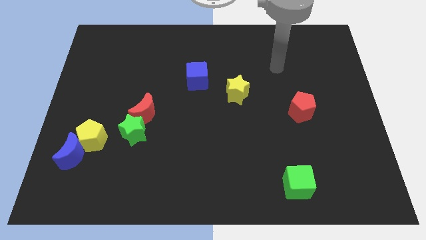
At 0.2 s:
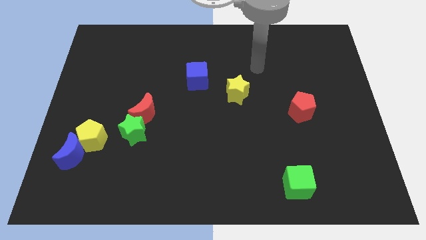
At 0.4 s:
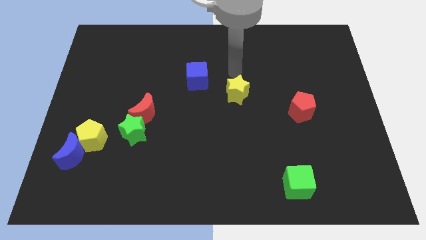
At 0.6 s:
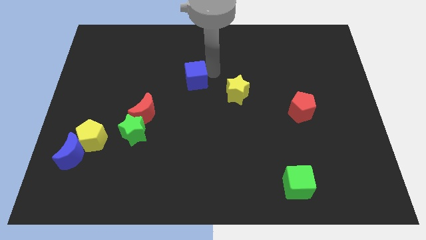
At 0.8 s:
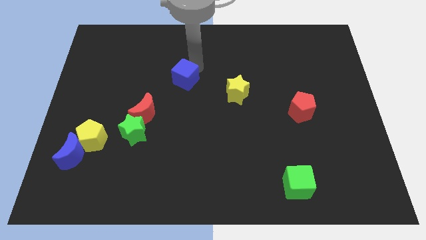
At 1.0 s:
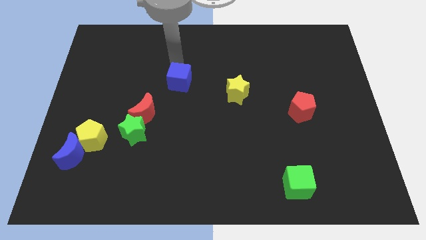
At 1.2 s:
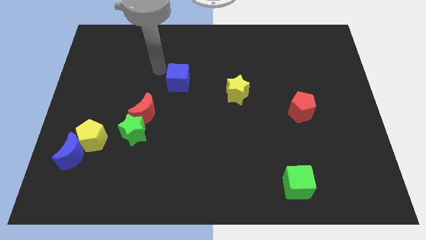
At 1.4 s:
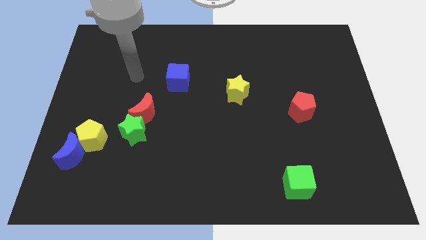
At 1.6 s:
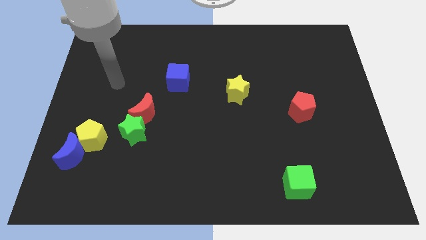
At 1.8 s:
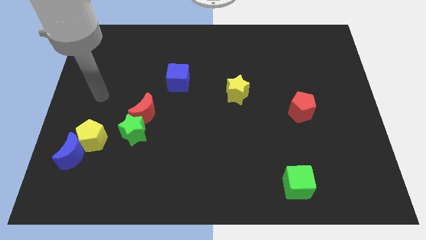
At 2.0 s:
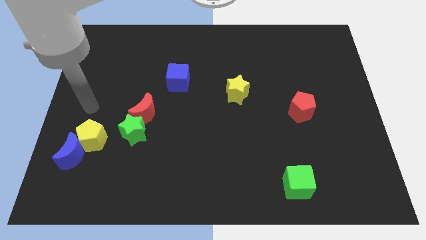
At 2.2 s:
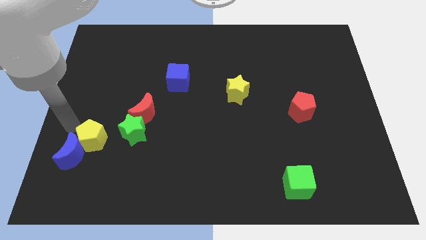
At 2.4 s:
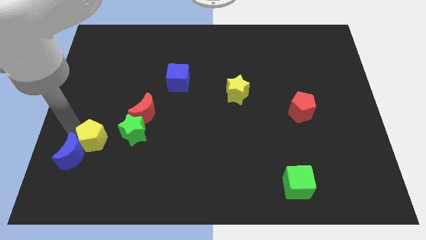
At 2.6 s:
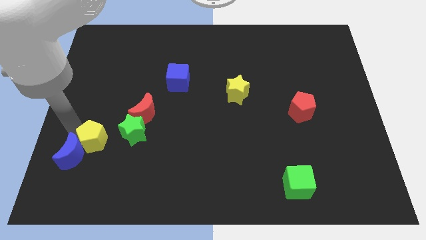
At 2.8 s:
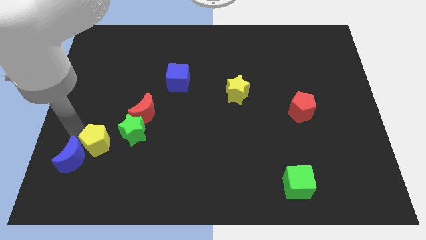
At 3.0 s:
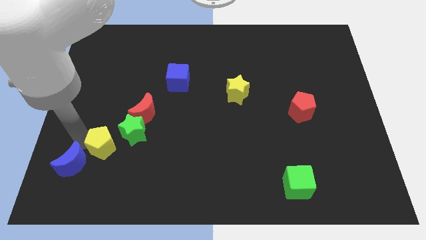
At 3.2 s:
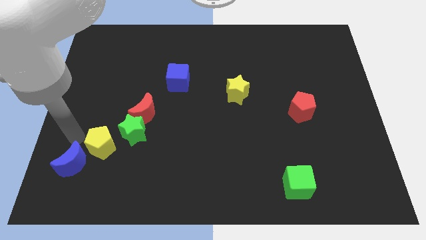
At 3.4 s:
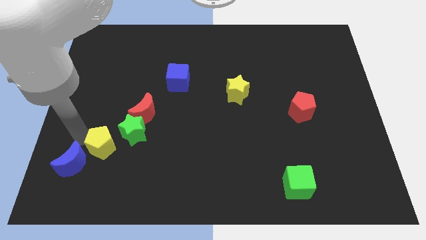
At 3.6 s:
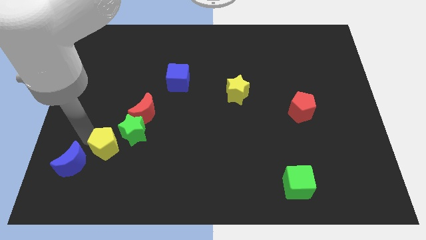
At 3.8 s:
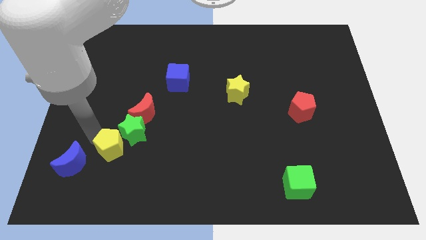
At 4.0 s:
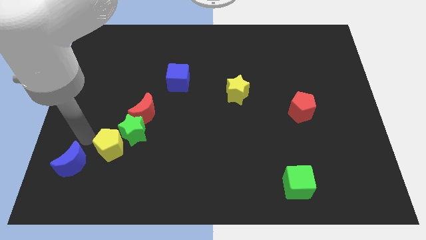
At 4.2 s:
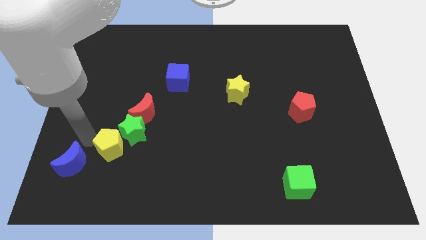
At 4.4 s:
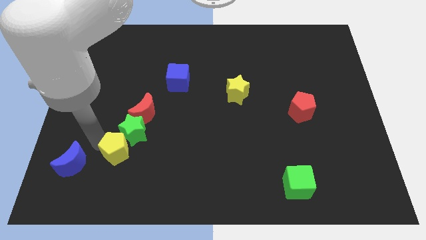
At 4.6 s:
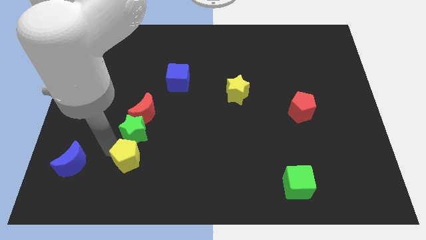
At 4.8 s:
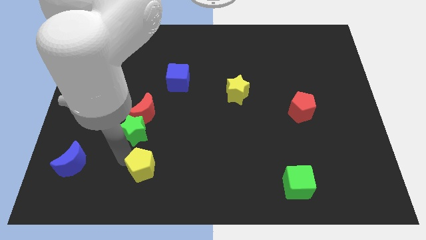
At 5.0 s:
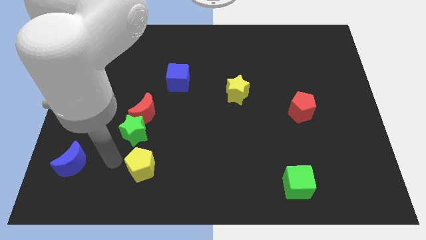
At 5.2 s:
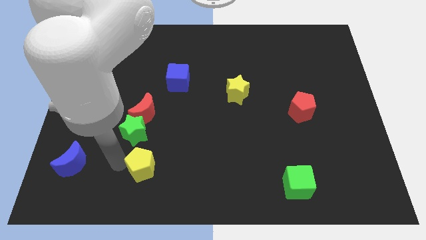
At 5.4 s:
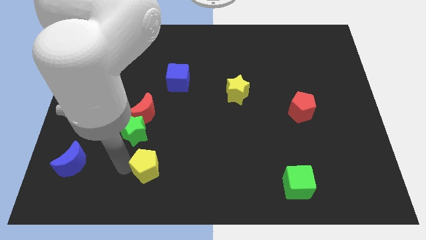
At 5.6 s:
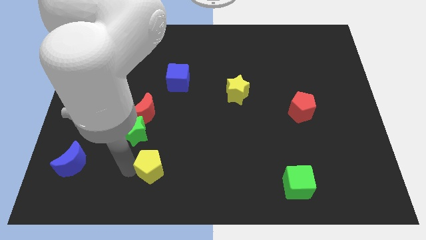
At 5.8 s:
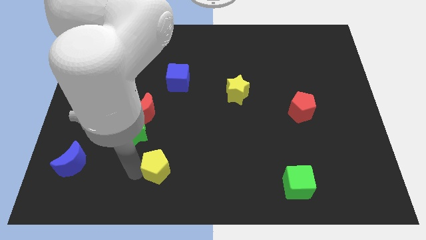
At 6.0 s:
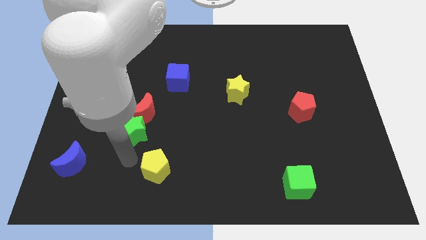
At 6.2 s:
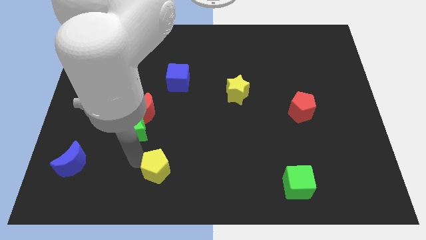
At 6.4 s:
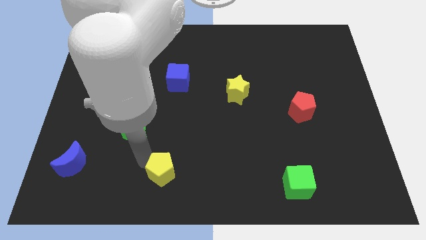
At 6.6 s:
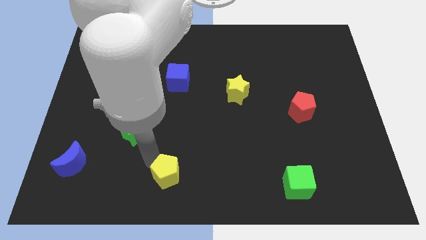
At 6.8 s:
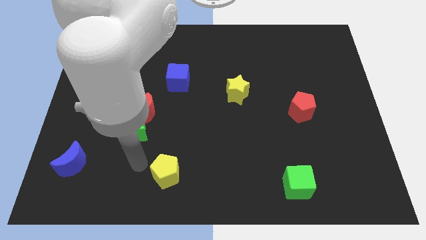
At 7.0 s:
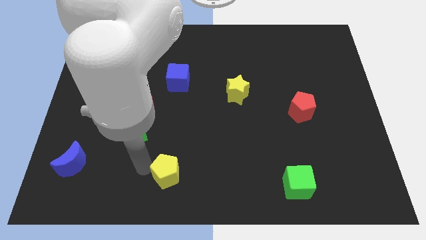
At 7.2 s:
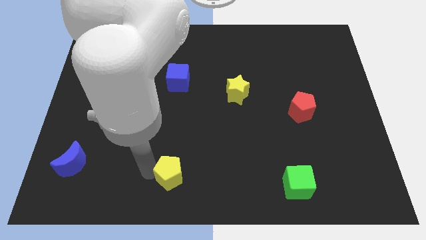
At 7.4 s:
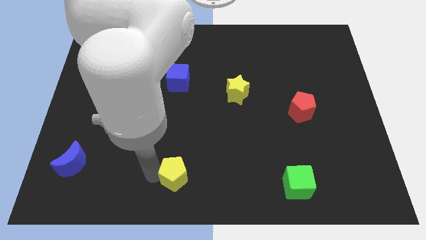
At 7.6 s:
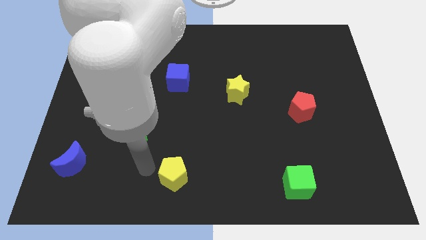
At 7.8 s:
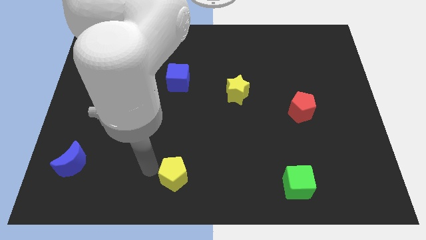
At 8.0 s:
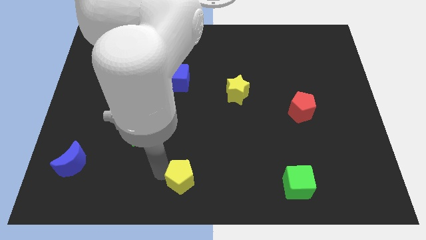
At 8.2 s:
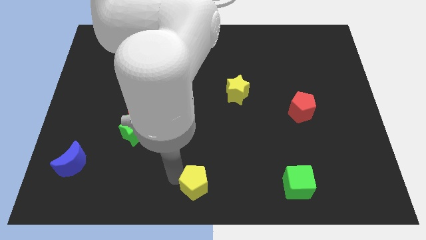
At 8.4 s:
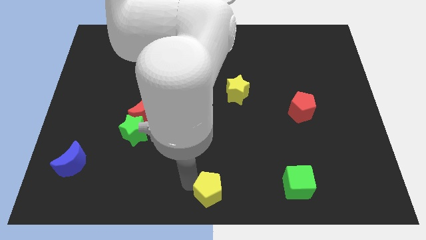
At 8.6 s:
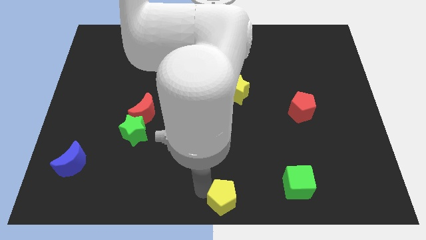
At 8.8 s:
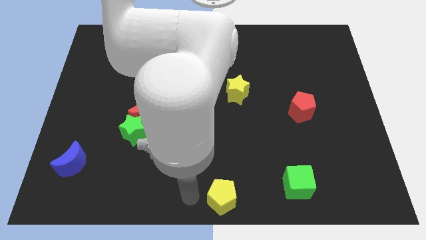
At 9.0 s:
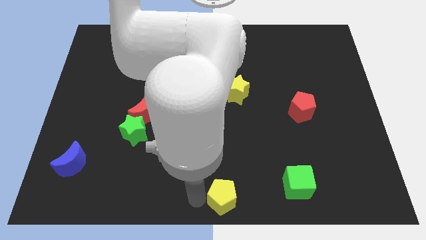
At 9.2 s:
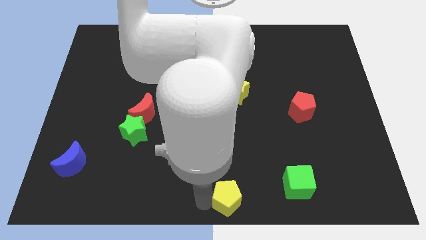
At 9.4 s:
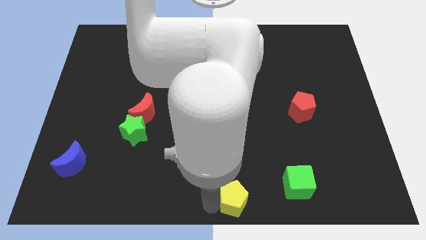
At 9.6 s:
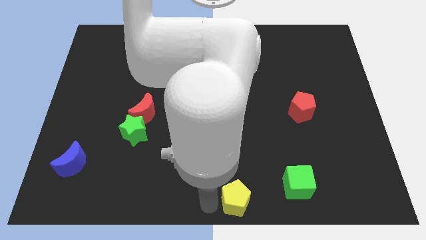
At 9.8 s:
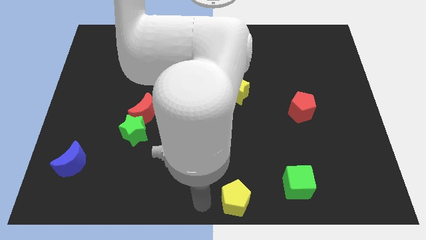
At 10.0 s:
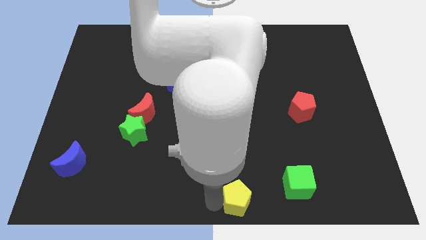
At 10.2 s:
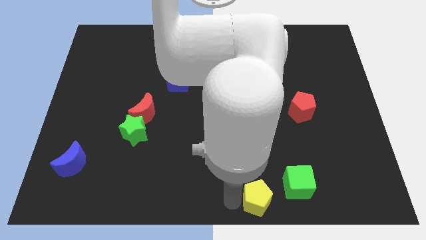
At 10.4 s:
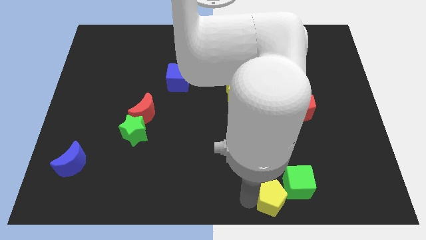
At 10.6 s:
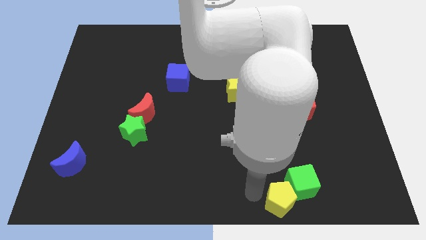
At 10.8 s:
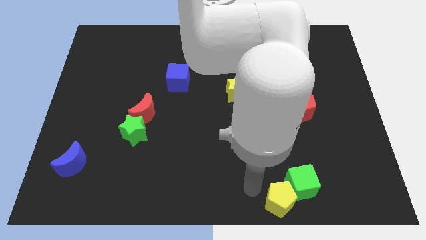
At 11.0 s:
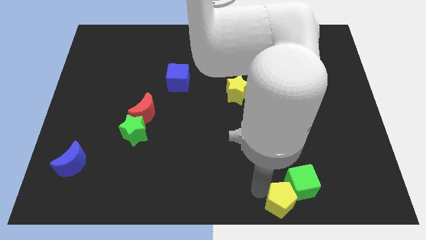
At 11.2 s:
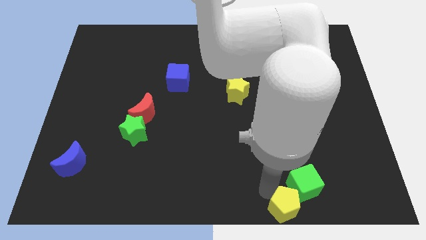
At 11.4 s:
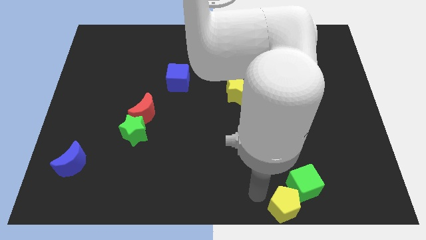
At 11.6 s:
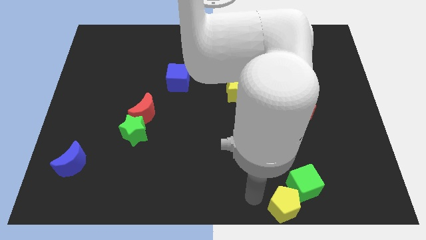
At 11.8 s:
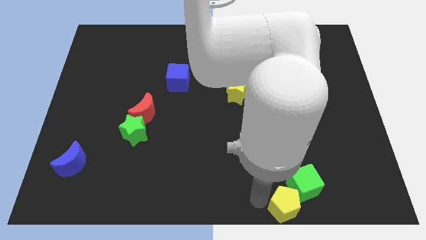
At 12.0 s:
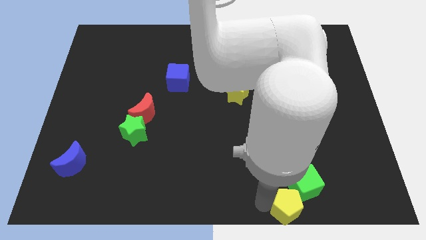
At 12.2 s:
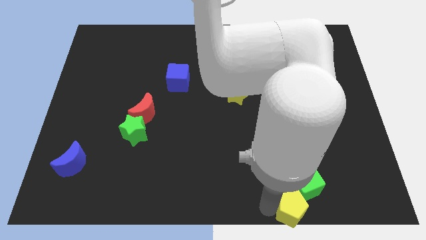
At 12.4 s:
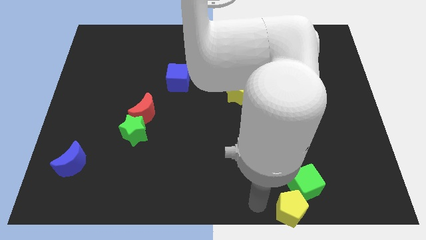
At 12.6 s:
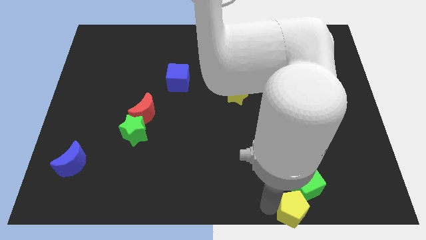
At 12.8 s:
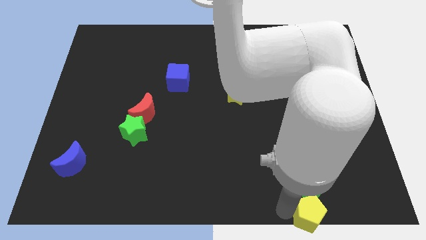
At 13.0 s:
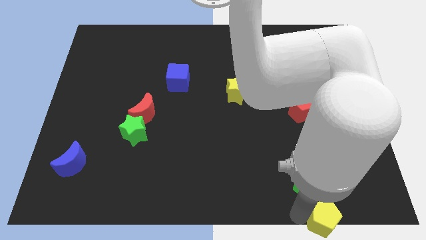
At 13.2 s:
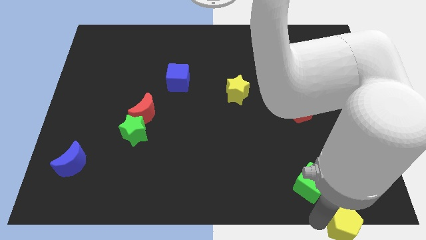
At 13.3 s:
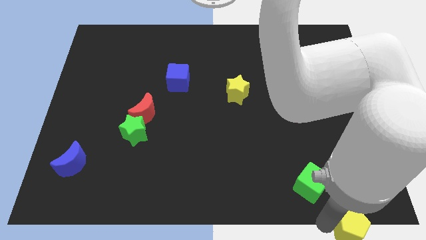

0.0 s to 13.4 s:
put the yellow pentagon to the bottom right
